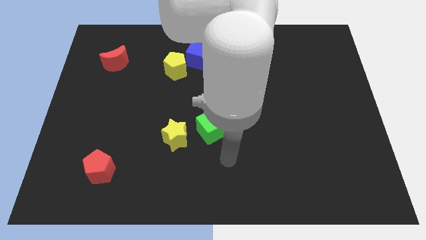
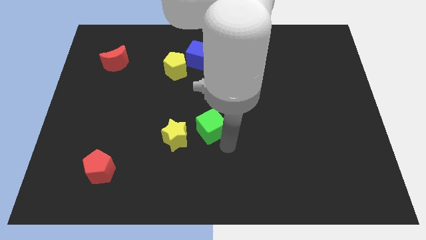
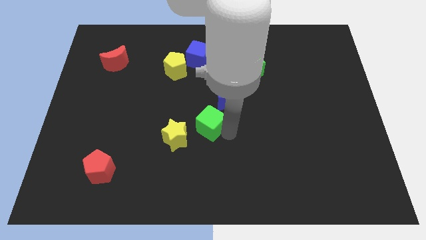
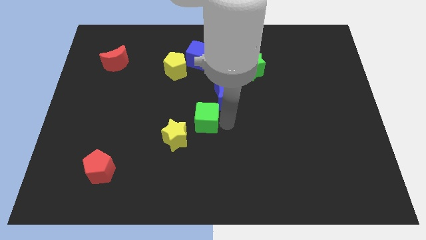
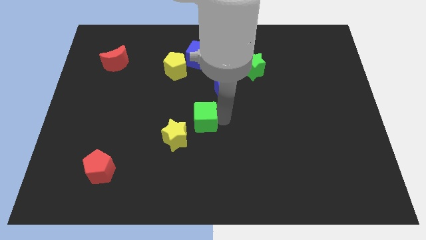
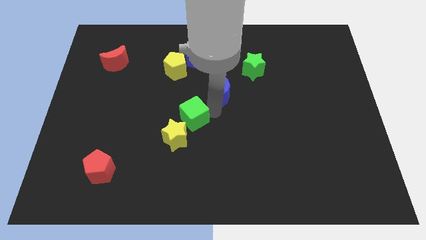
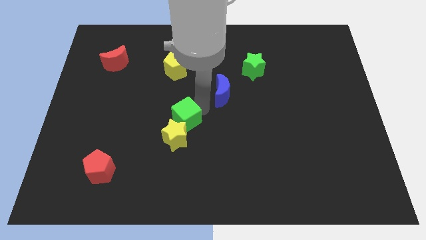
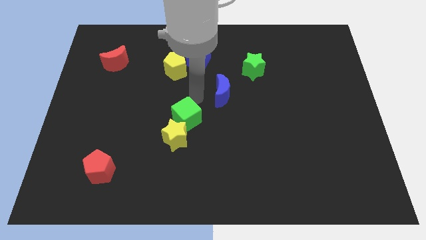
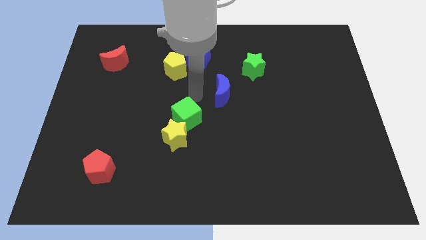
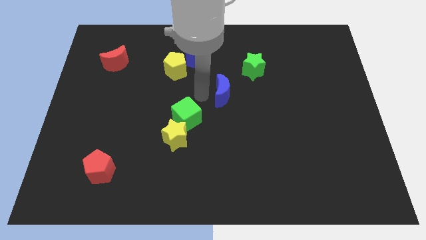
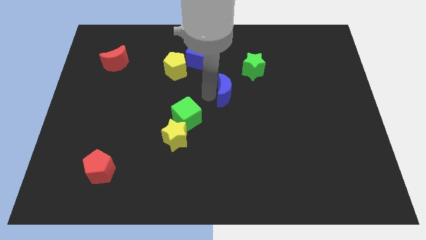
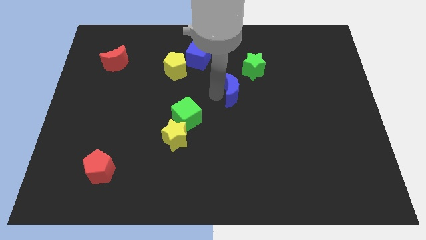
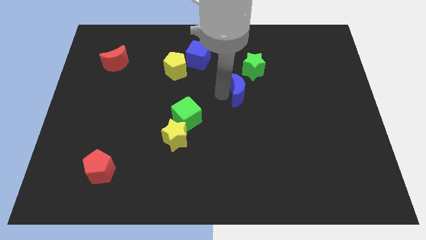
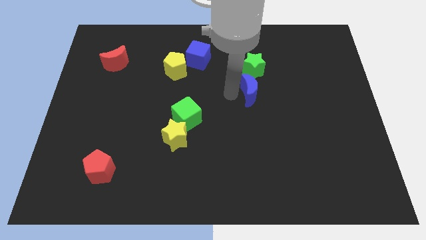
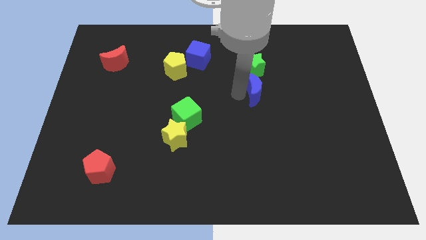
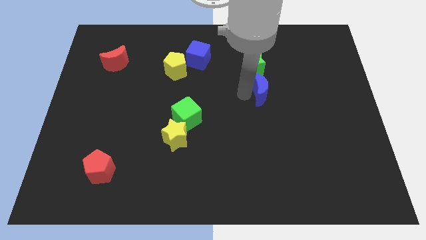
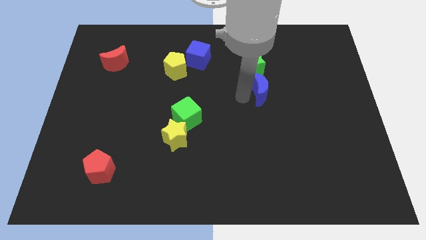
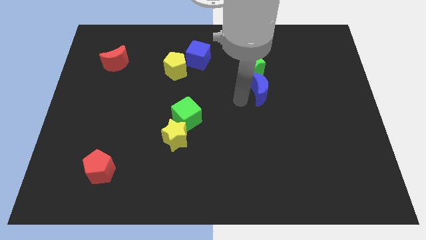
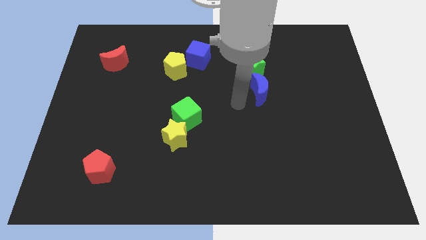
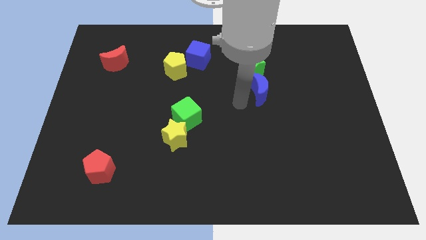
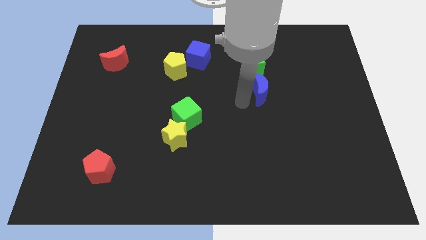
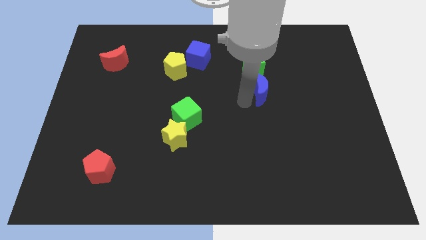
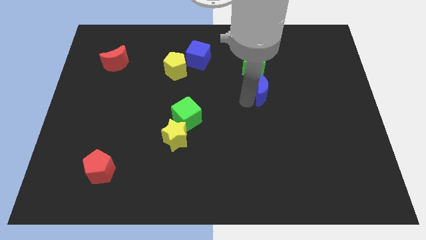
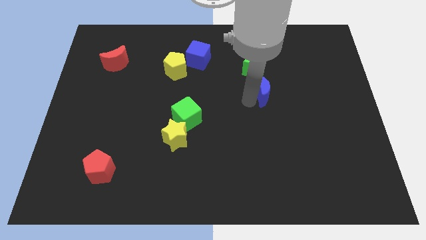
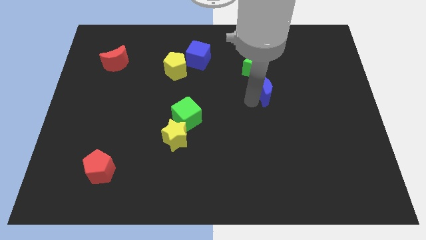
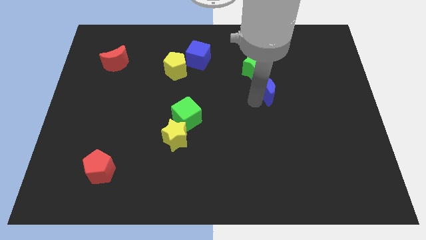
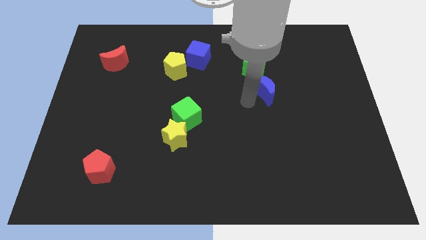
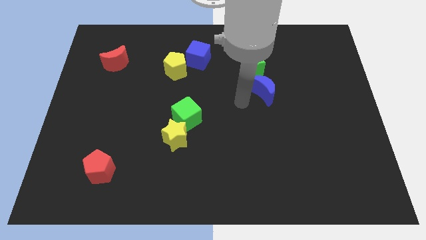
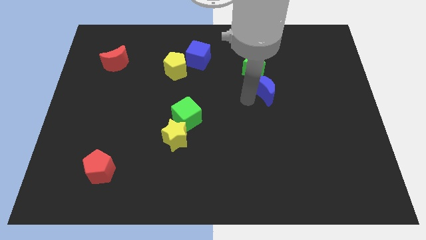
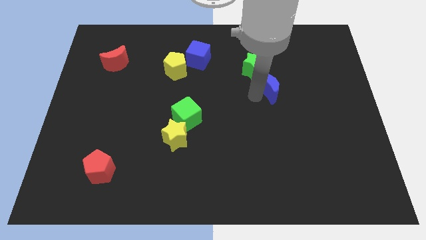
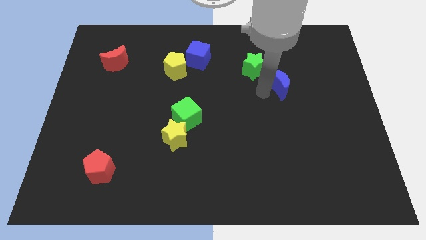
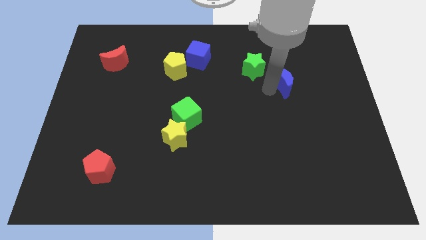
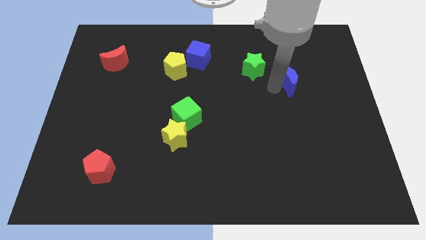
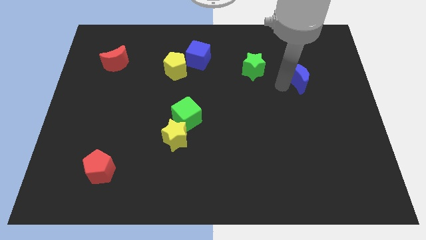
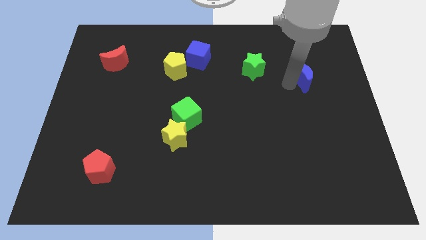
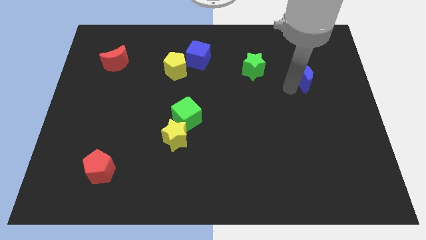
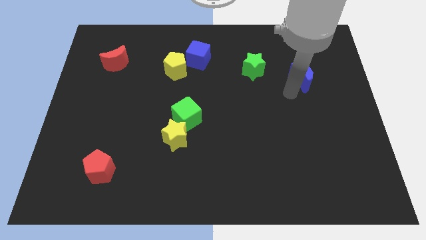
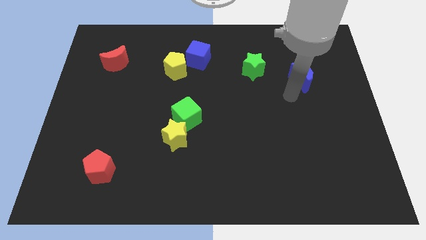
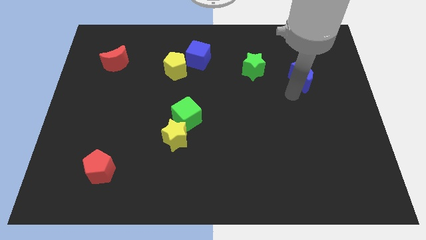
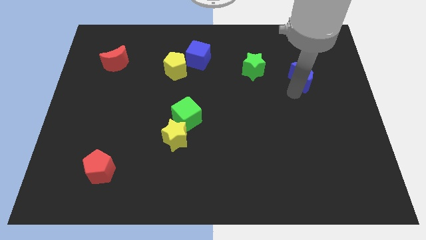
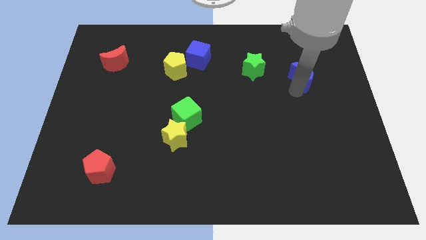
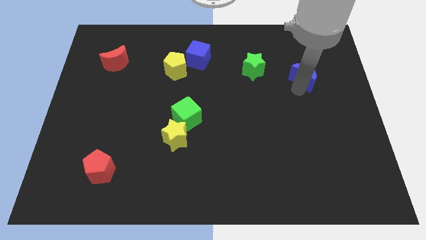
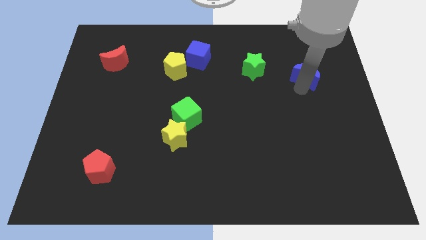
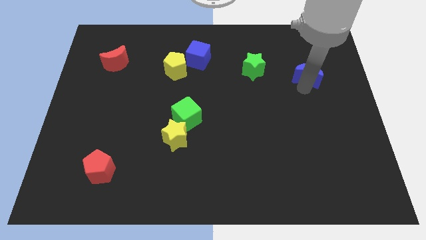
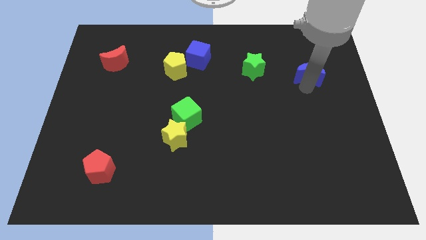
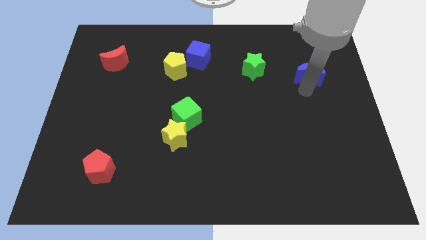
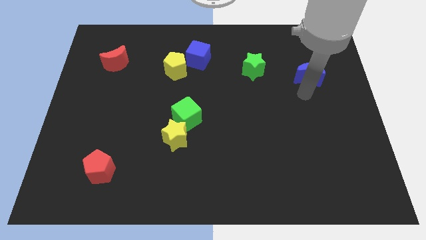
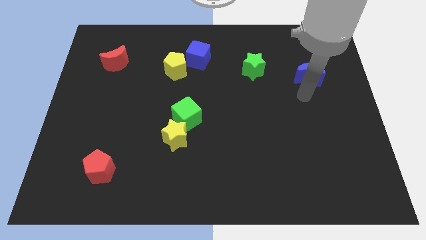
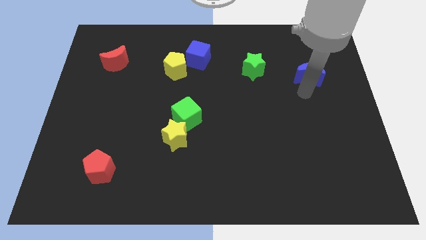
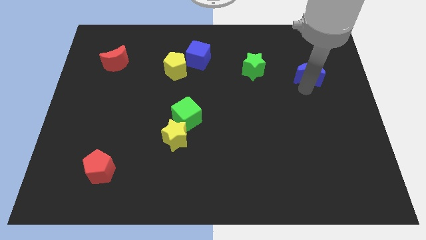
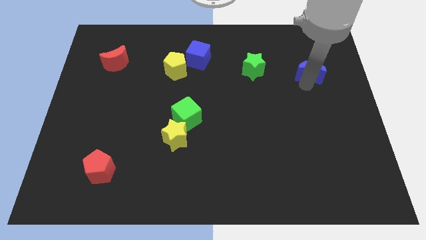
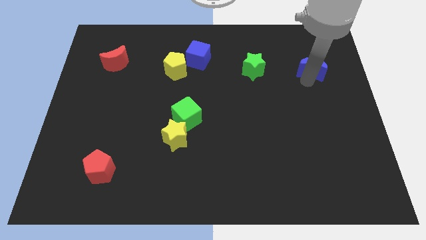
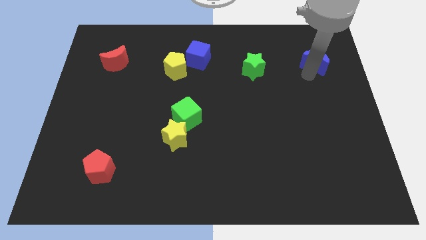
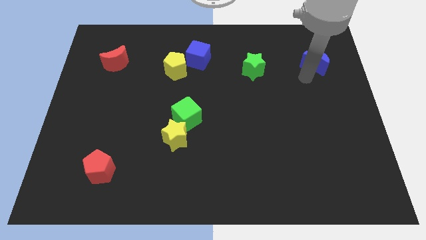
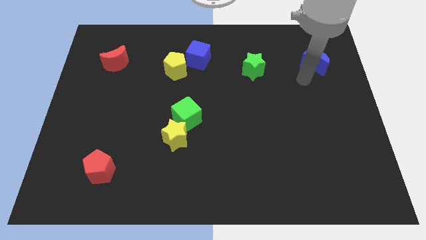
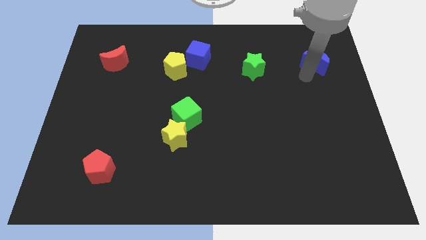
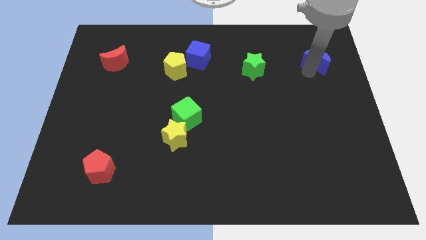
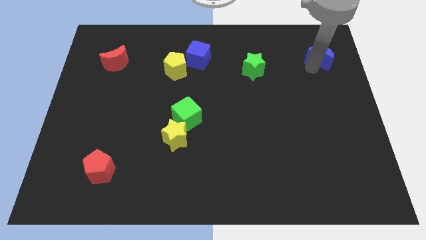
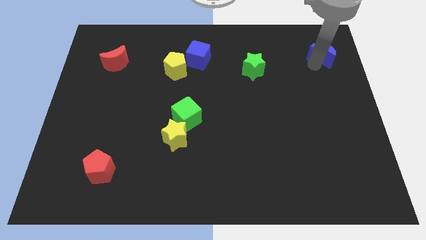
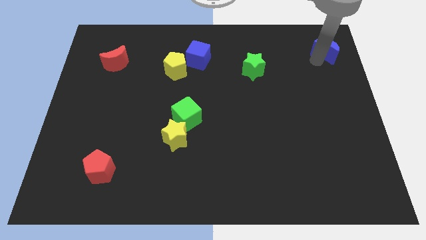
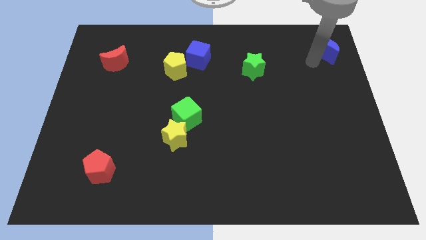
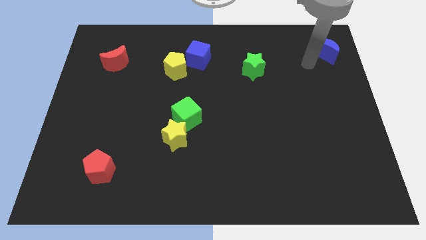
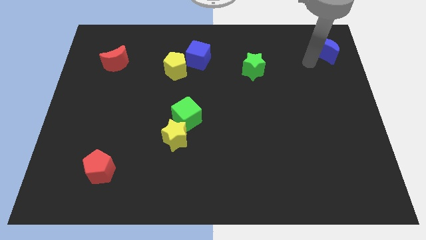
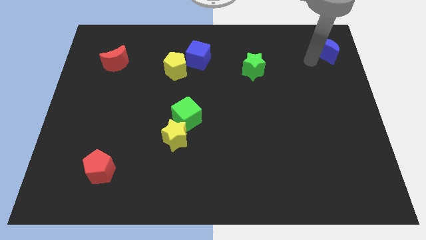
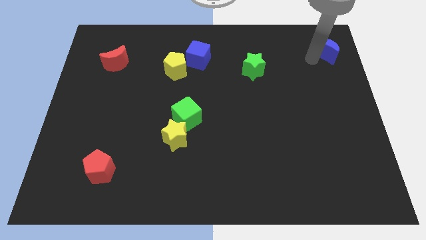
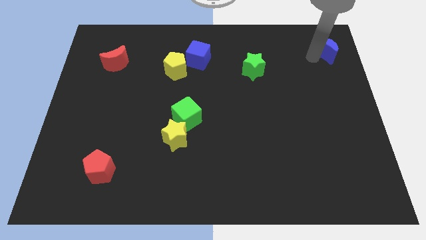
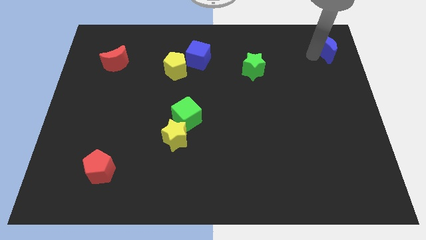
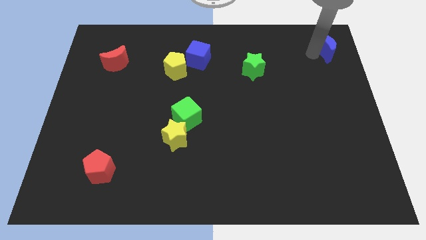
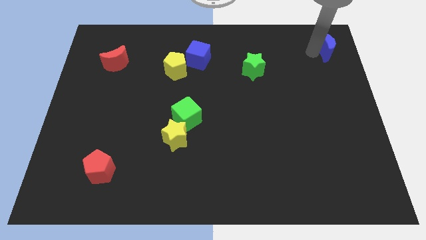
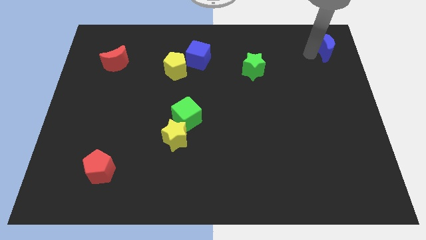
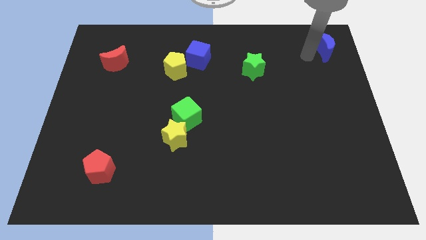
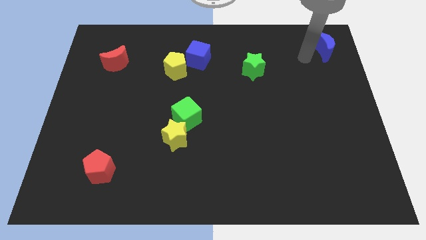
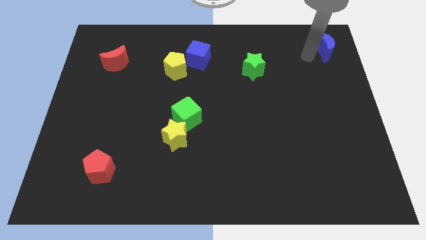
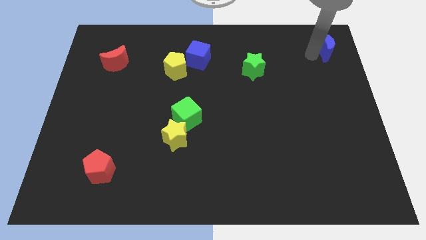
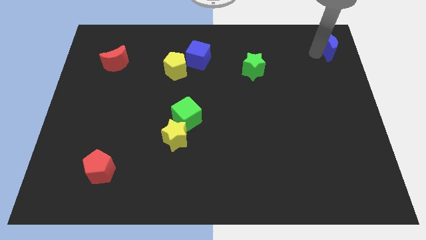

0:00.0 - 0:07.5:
push the blue moon to the upper right corner

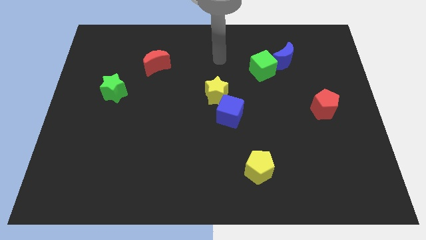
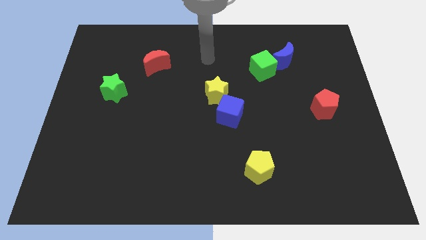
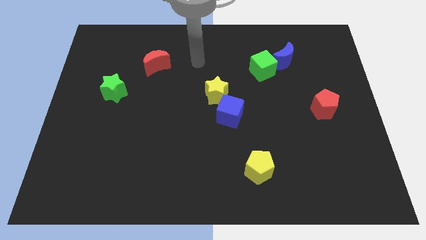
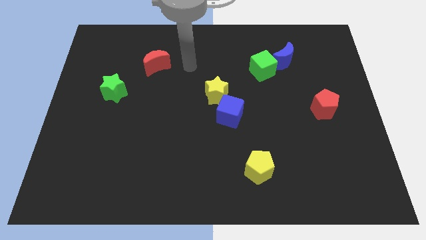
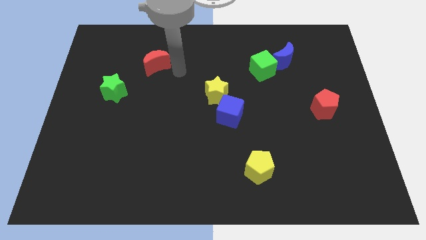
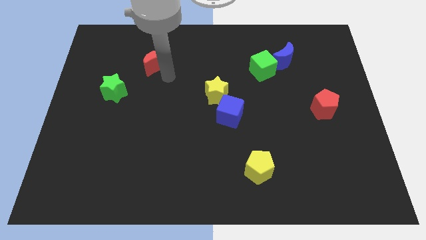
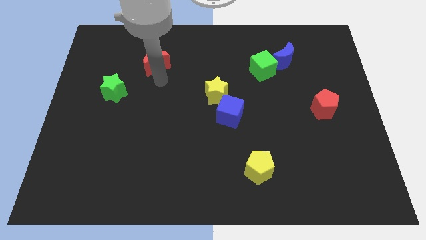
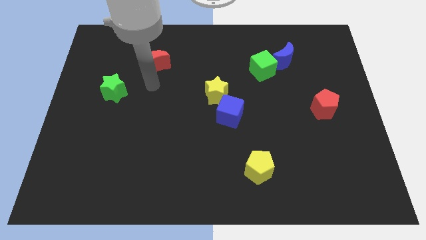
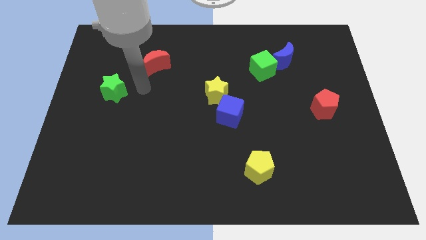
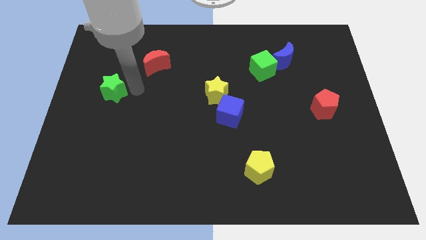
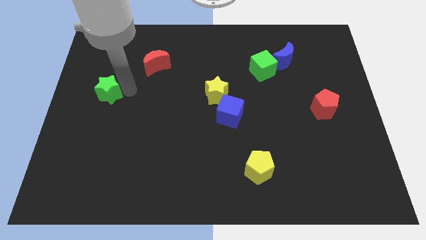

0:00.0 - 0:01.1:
put the green star to the left side of the board
